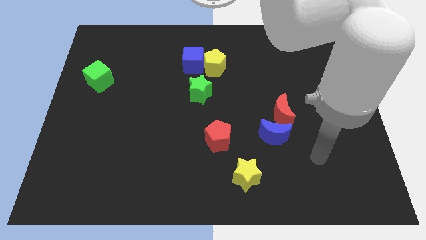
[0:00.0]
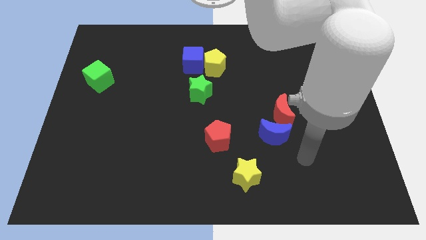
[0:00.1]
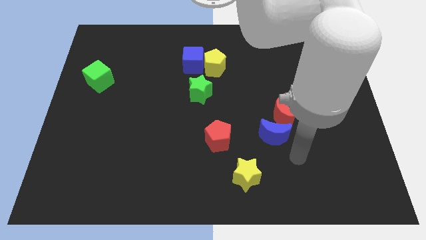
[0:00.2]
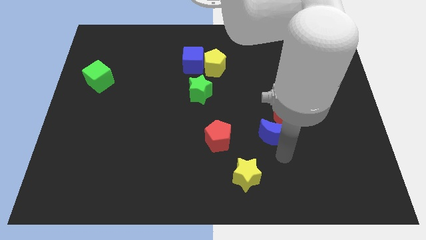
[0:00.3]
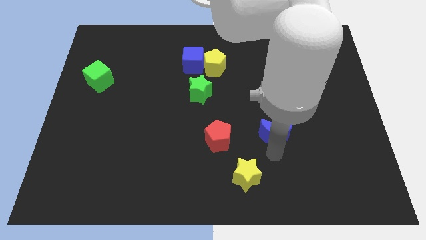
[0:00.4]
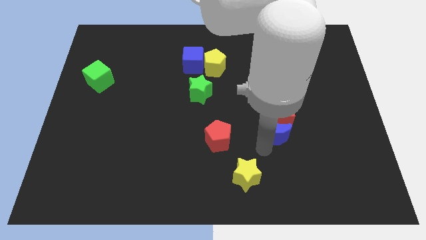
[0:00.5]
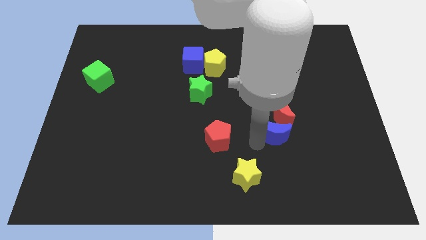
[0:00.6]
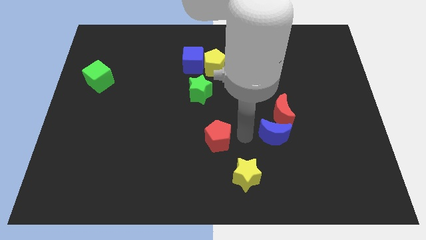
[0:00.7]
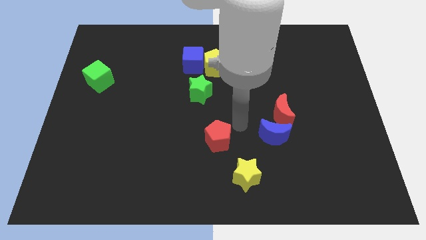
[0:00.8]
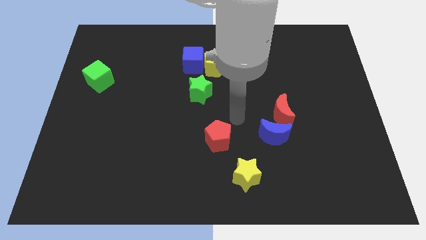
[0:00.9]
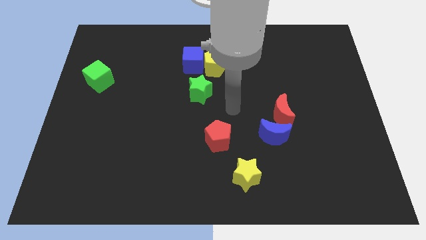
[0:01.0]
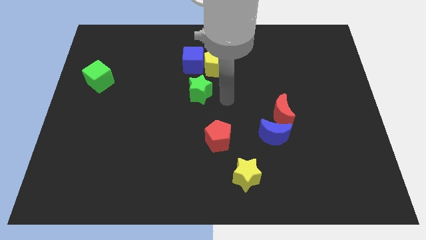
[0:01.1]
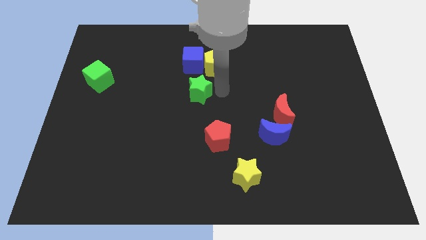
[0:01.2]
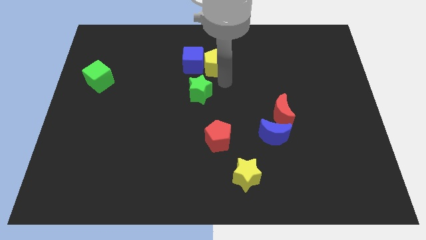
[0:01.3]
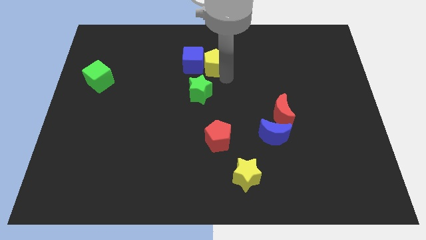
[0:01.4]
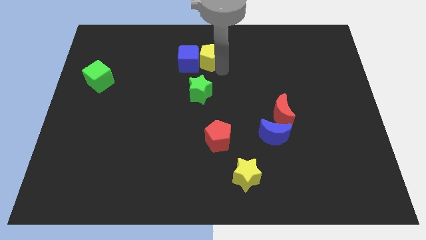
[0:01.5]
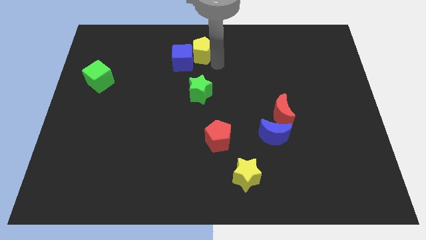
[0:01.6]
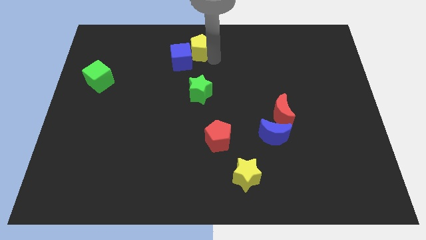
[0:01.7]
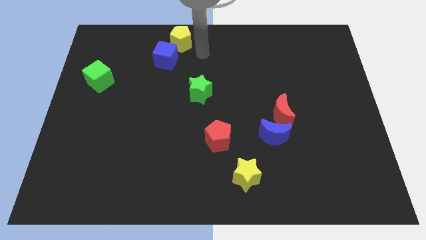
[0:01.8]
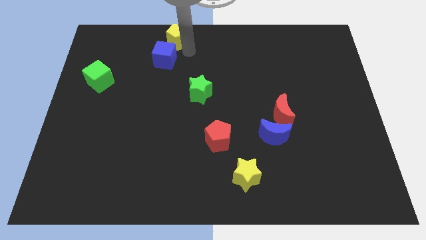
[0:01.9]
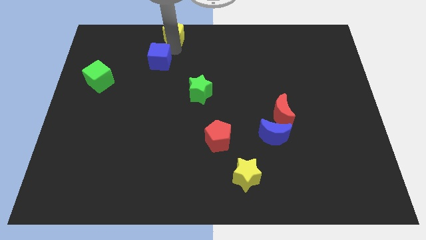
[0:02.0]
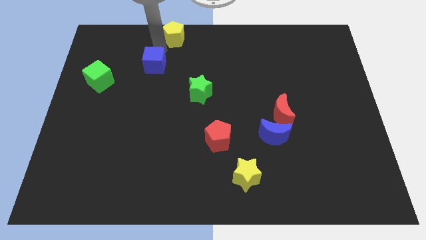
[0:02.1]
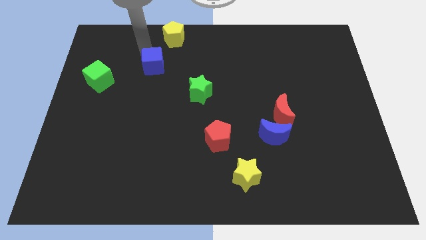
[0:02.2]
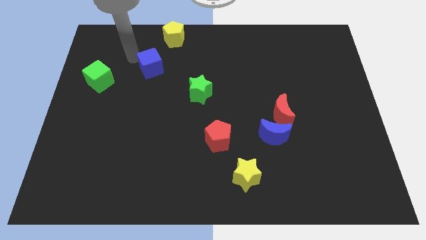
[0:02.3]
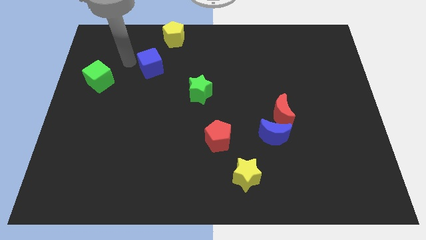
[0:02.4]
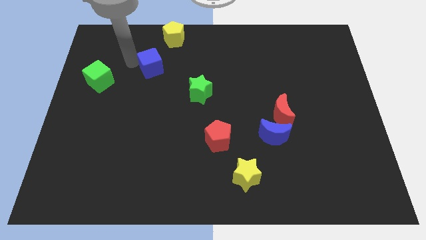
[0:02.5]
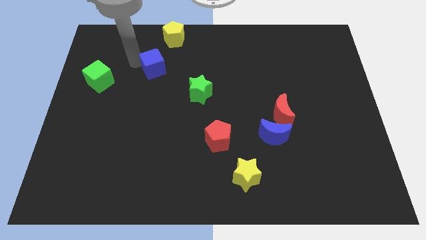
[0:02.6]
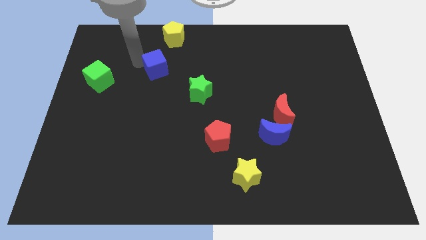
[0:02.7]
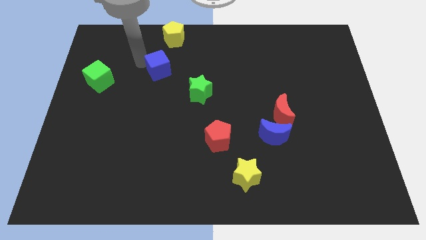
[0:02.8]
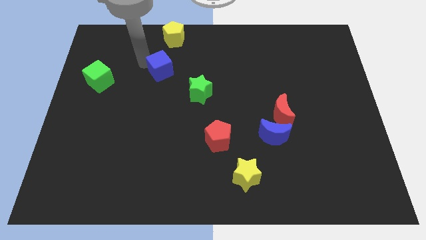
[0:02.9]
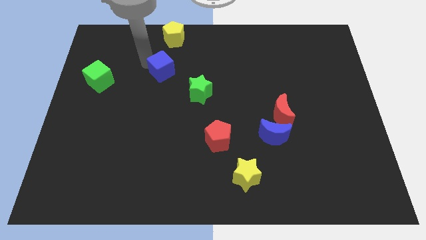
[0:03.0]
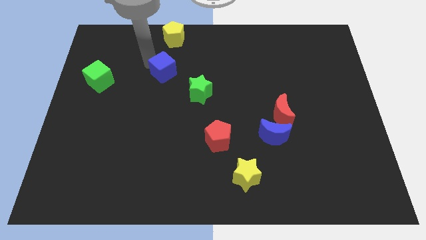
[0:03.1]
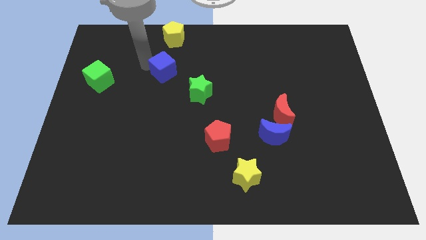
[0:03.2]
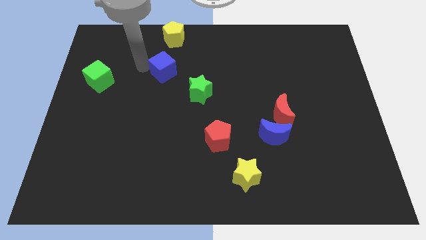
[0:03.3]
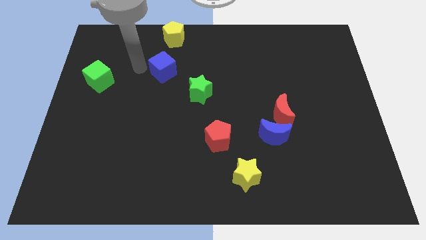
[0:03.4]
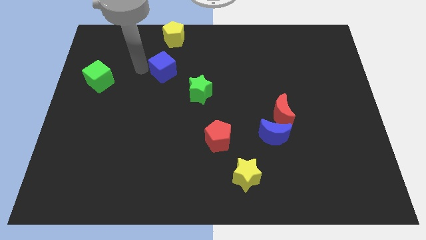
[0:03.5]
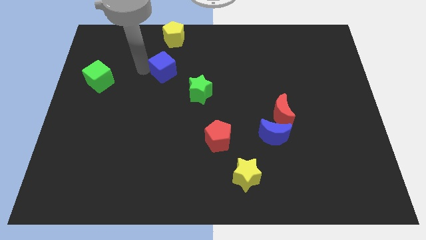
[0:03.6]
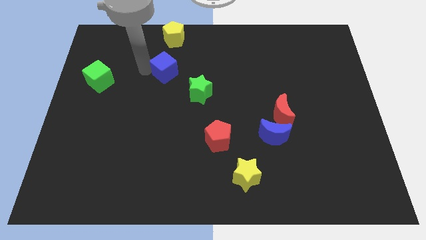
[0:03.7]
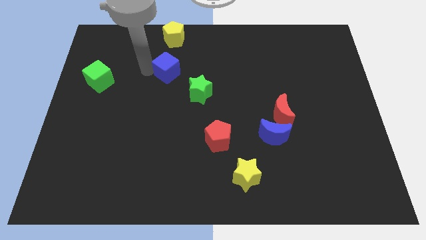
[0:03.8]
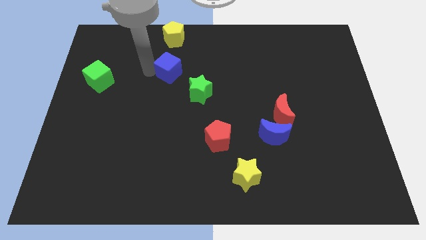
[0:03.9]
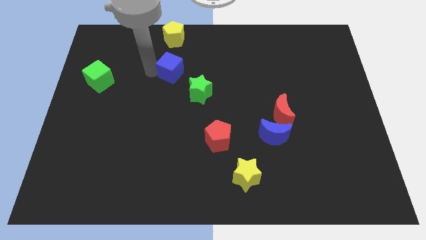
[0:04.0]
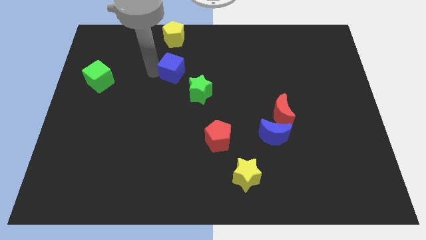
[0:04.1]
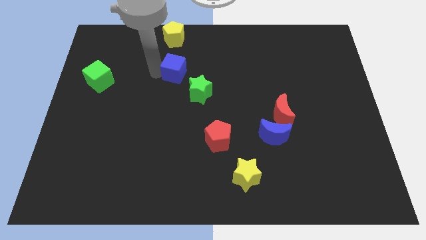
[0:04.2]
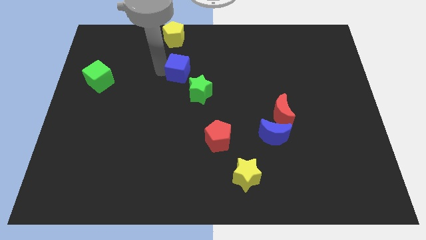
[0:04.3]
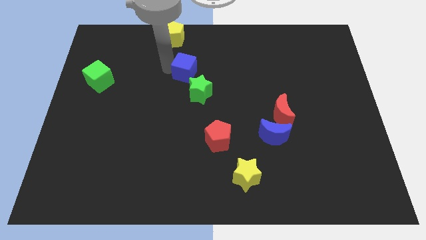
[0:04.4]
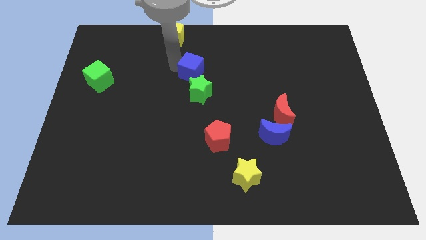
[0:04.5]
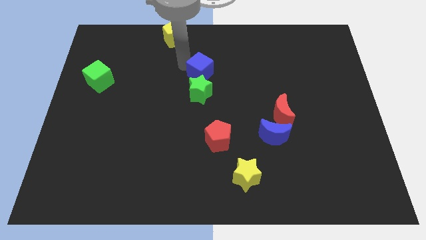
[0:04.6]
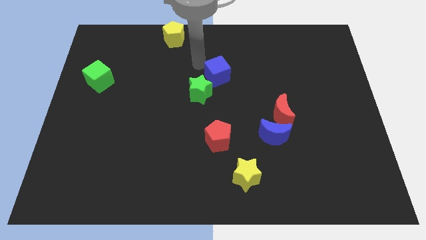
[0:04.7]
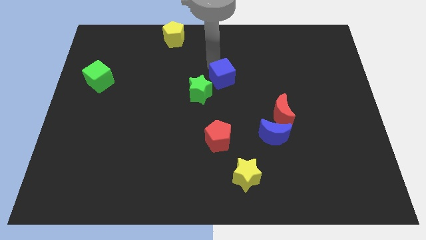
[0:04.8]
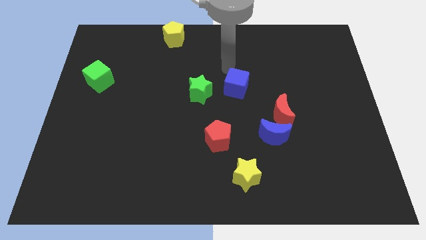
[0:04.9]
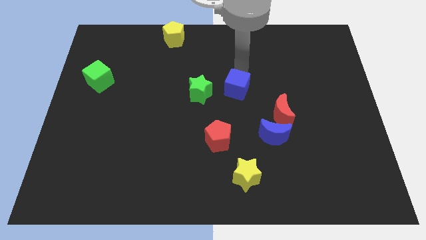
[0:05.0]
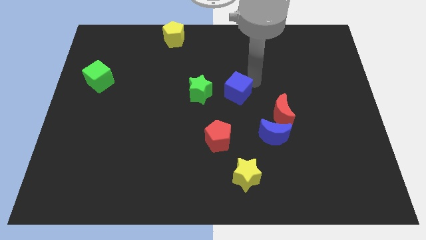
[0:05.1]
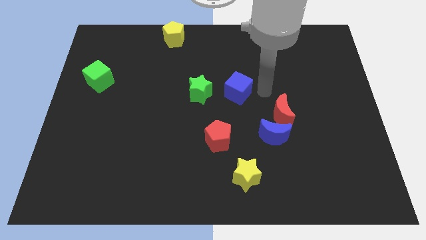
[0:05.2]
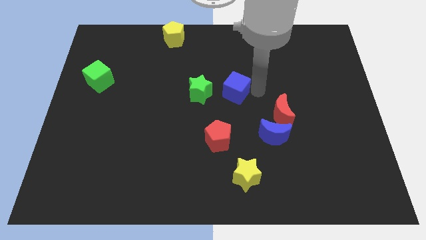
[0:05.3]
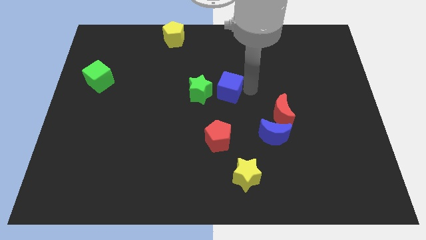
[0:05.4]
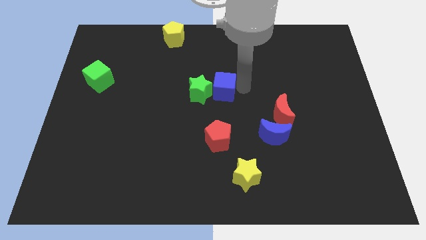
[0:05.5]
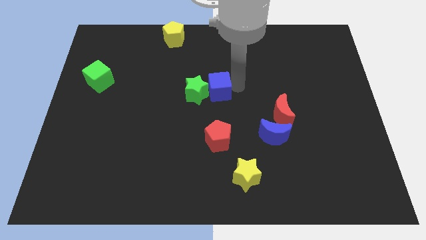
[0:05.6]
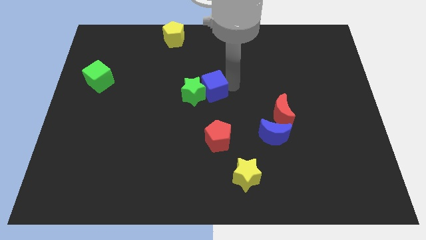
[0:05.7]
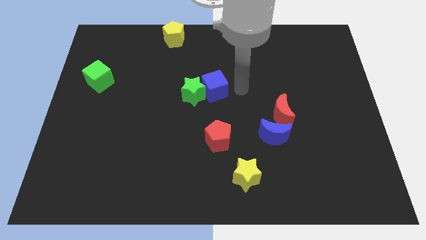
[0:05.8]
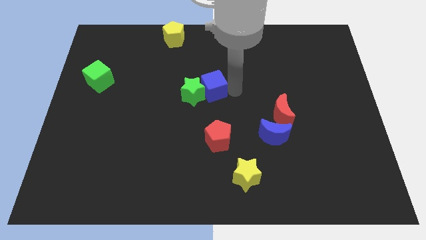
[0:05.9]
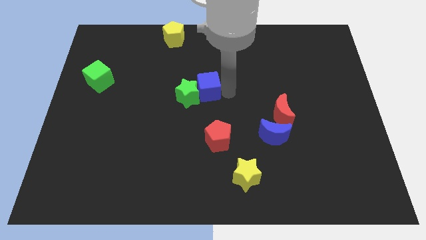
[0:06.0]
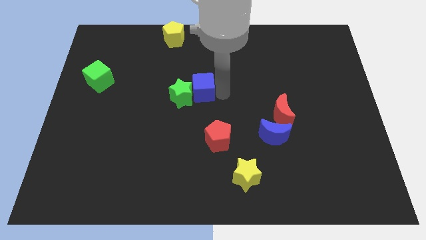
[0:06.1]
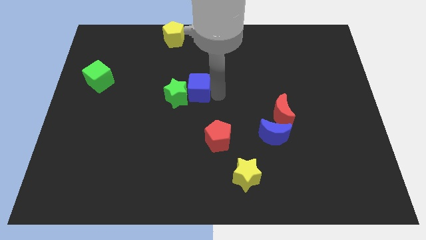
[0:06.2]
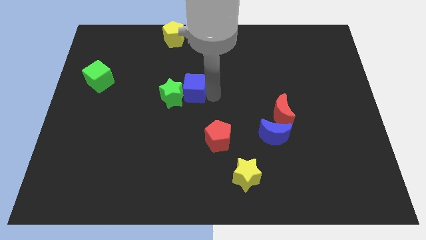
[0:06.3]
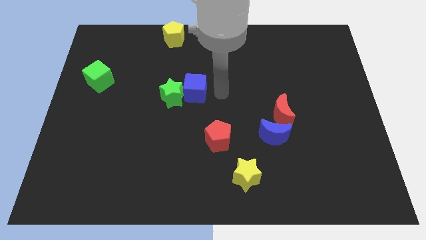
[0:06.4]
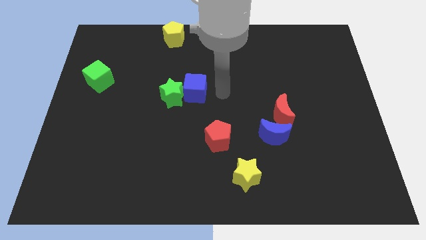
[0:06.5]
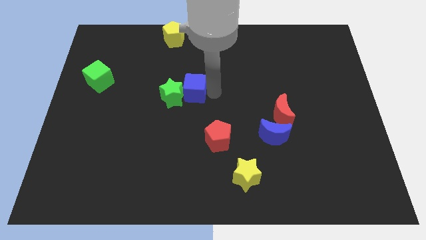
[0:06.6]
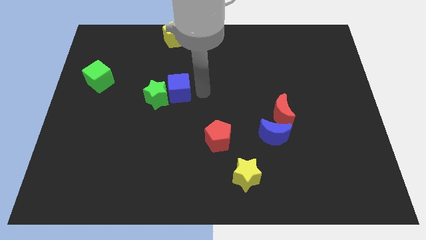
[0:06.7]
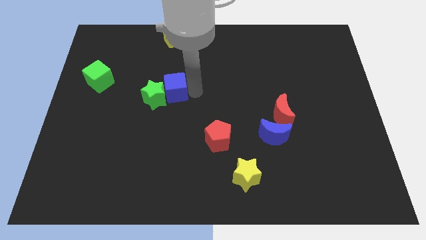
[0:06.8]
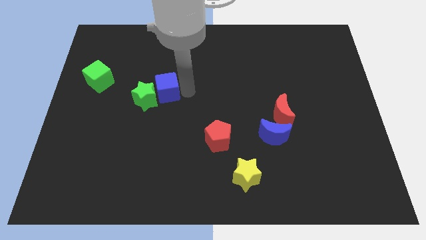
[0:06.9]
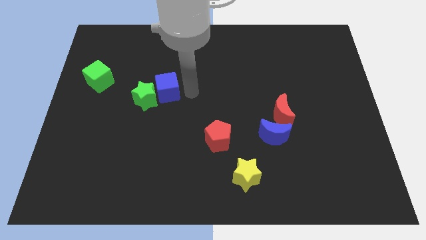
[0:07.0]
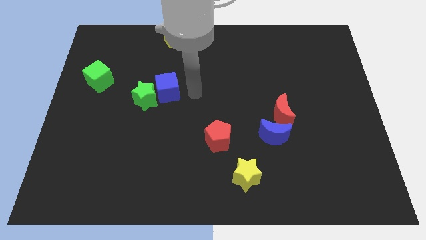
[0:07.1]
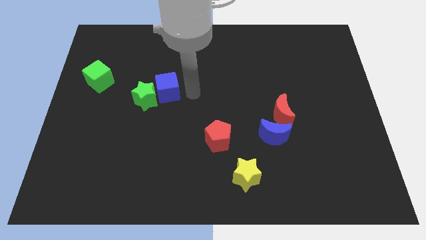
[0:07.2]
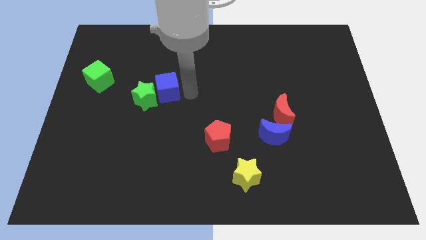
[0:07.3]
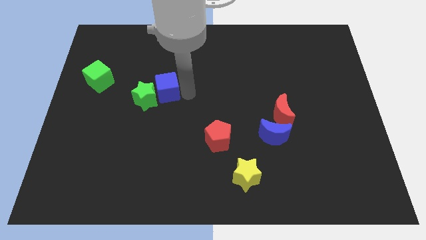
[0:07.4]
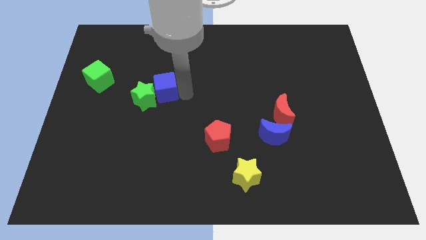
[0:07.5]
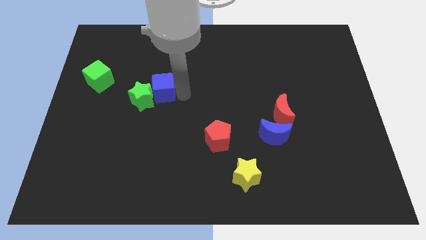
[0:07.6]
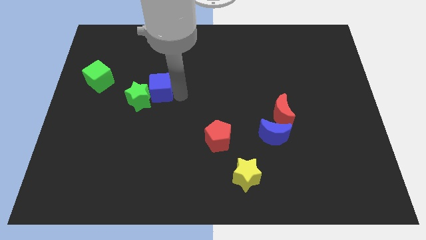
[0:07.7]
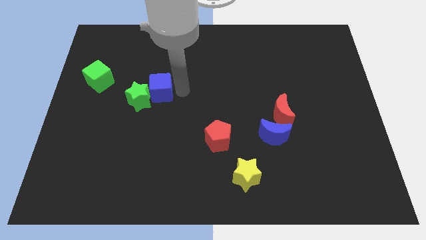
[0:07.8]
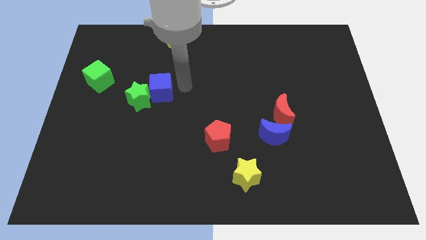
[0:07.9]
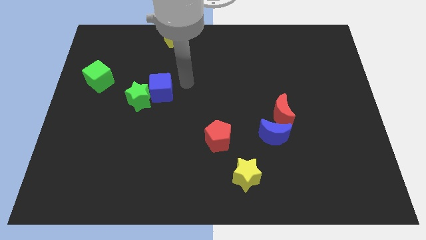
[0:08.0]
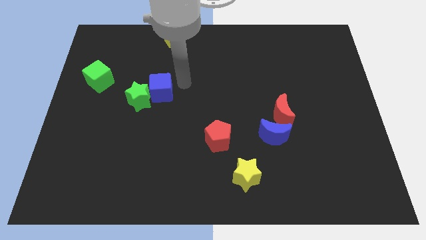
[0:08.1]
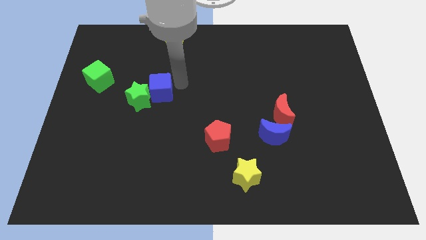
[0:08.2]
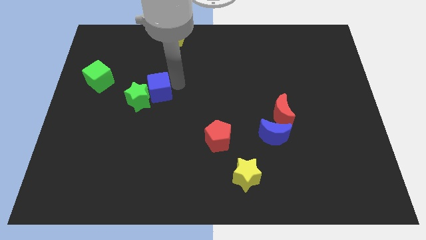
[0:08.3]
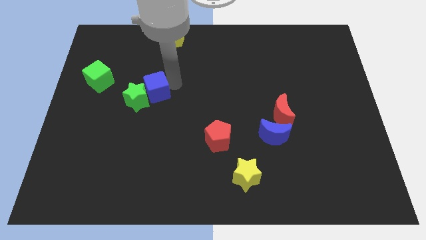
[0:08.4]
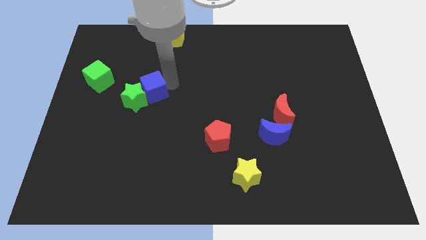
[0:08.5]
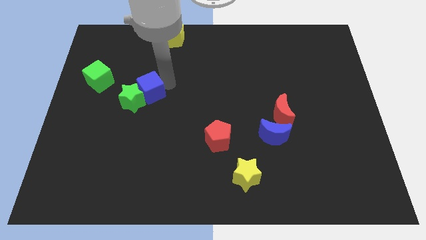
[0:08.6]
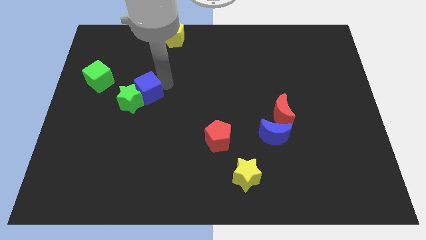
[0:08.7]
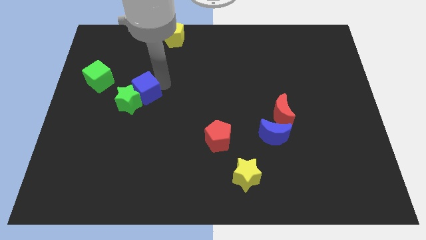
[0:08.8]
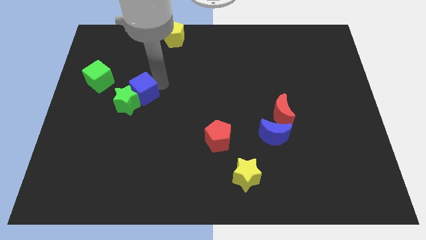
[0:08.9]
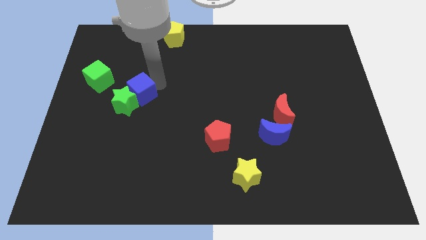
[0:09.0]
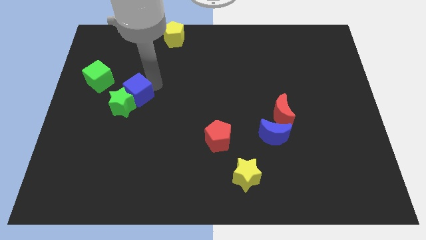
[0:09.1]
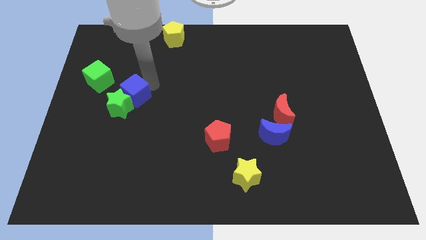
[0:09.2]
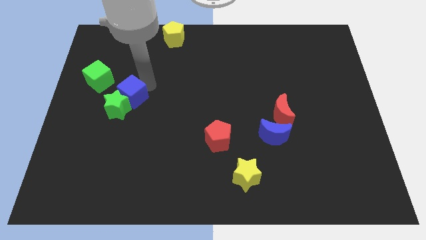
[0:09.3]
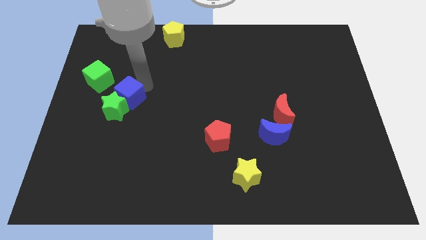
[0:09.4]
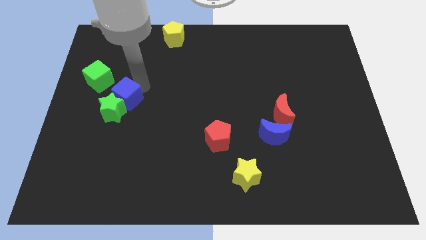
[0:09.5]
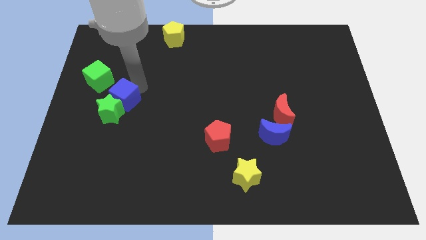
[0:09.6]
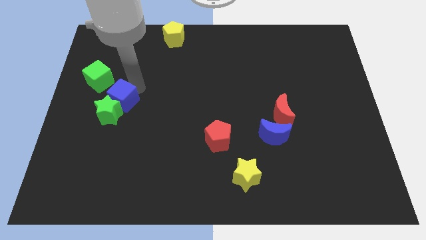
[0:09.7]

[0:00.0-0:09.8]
move the blue cube downwards and left
